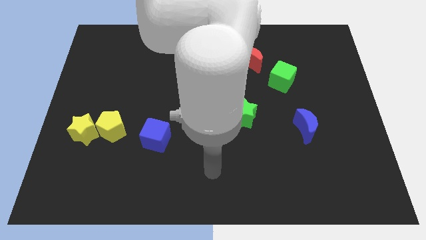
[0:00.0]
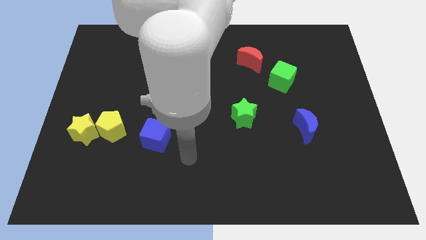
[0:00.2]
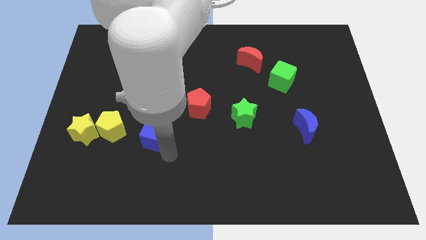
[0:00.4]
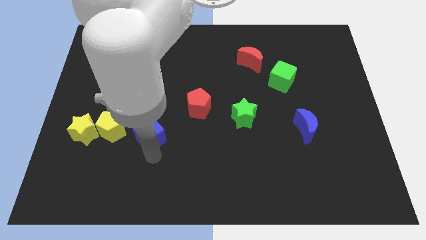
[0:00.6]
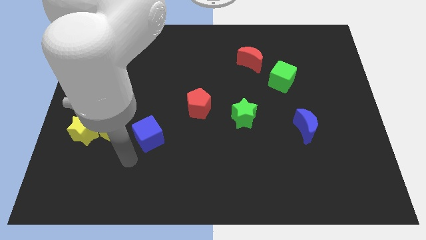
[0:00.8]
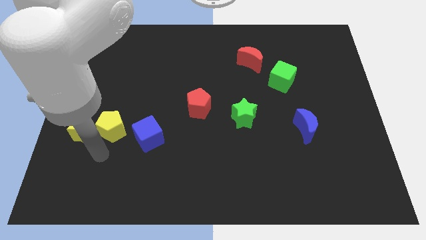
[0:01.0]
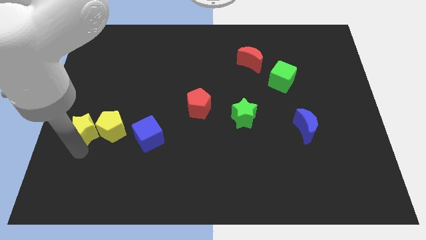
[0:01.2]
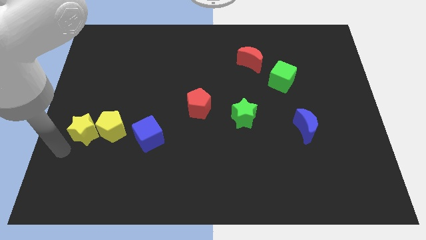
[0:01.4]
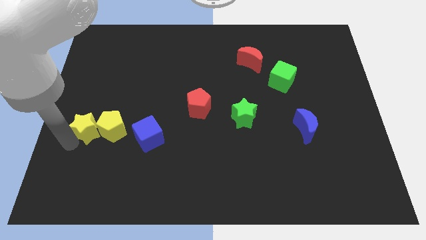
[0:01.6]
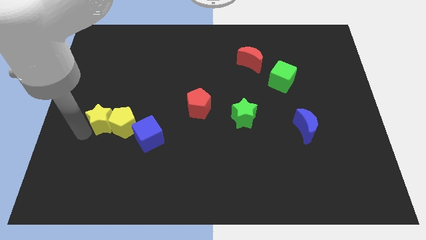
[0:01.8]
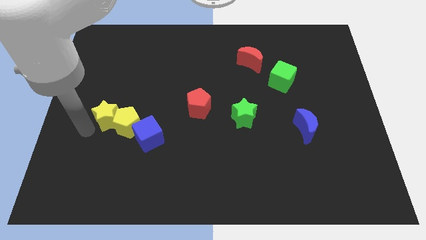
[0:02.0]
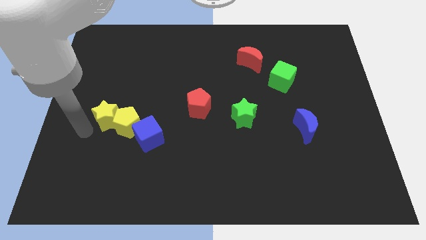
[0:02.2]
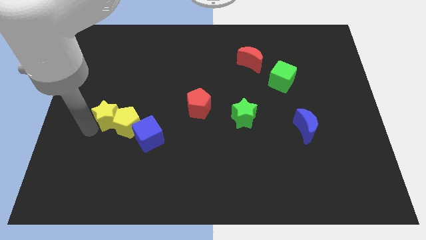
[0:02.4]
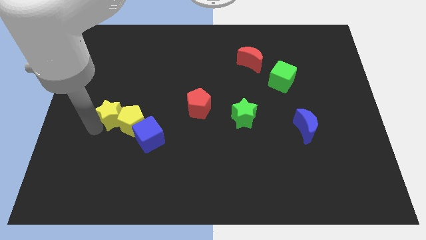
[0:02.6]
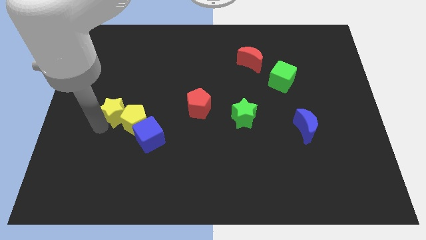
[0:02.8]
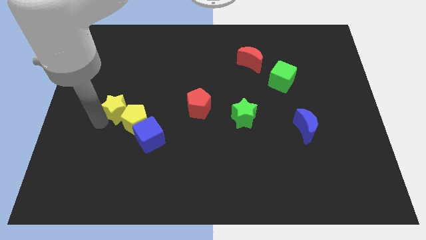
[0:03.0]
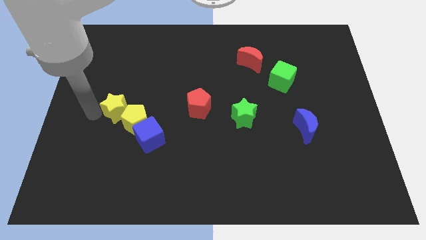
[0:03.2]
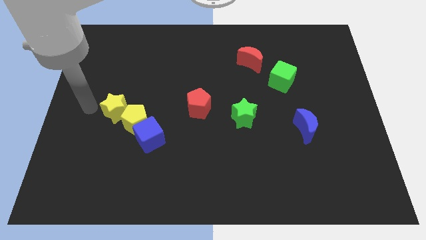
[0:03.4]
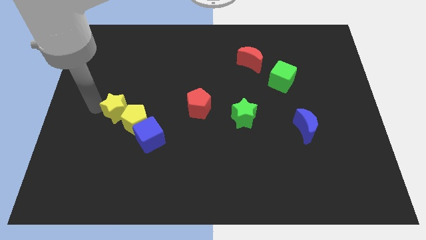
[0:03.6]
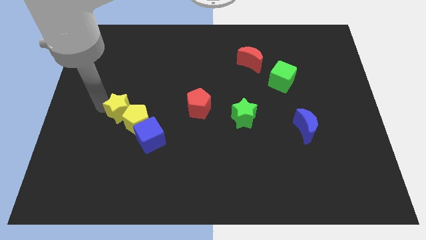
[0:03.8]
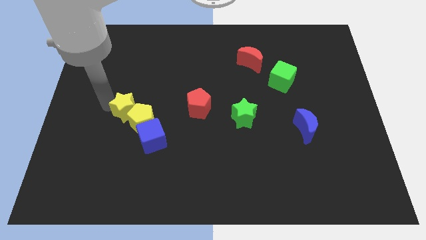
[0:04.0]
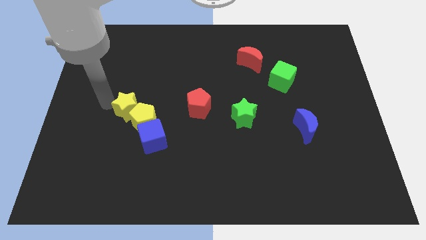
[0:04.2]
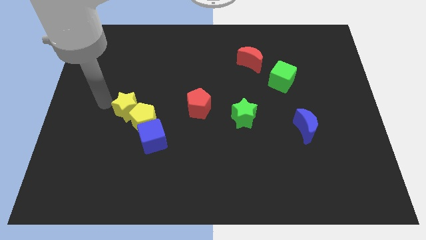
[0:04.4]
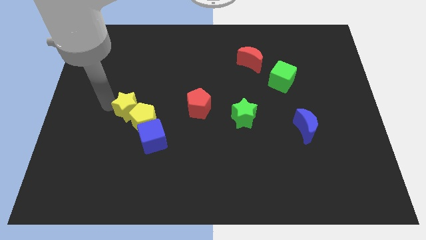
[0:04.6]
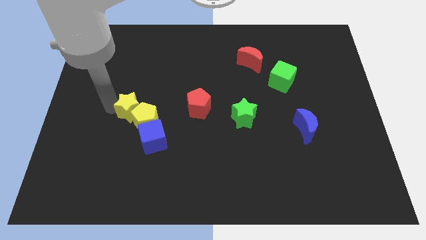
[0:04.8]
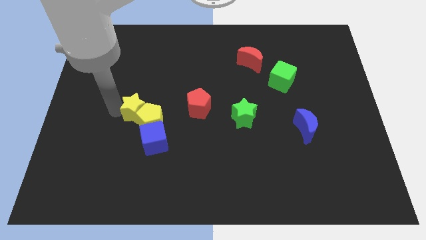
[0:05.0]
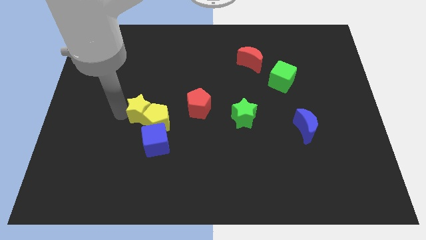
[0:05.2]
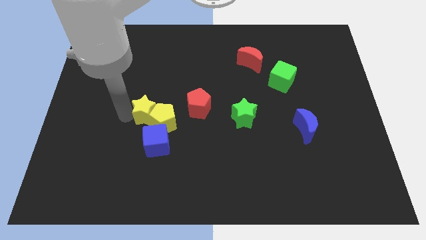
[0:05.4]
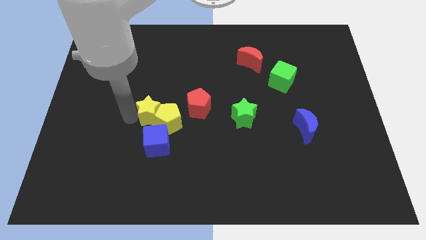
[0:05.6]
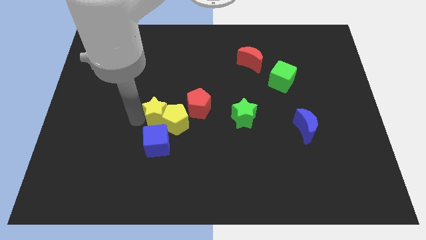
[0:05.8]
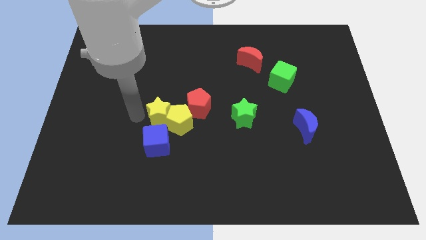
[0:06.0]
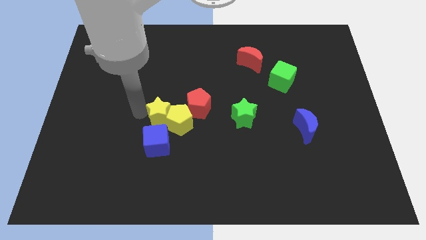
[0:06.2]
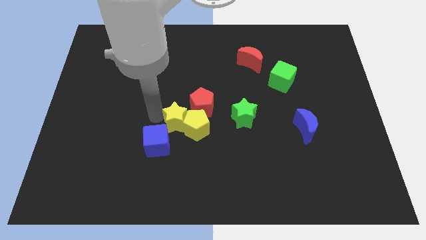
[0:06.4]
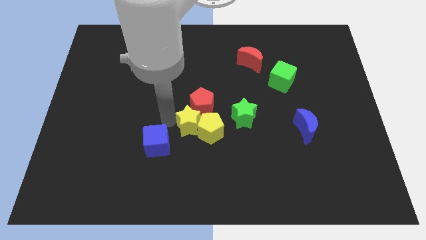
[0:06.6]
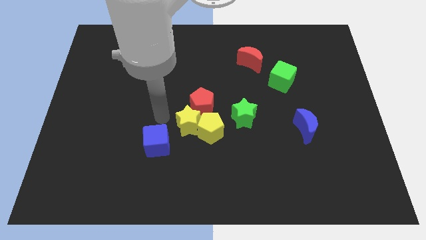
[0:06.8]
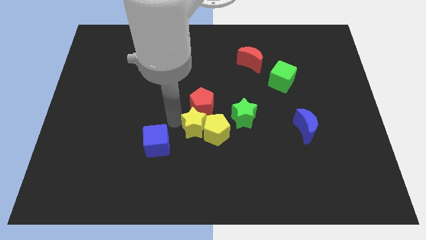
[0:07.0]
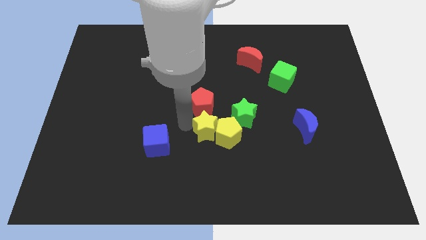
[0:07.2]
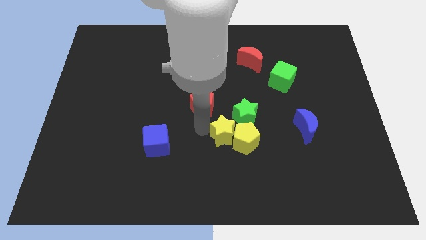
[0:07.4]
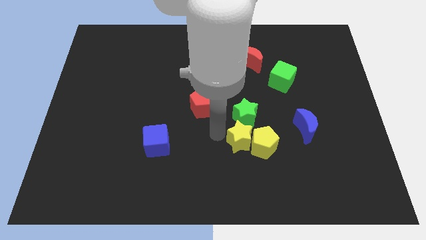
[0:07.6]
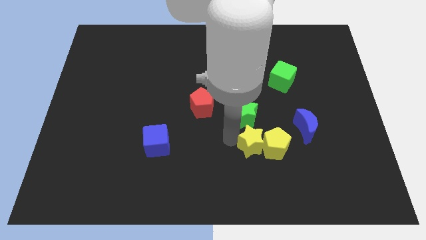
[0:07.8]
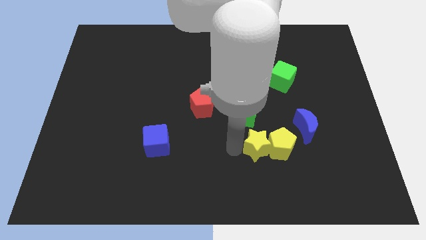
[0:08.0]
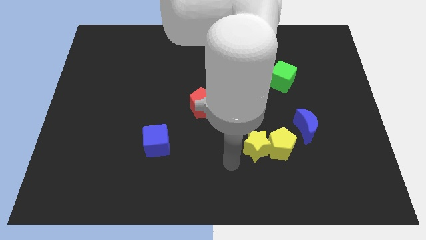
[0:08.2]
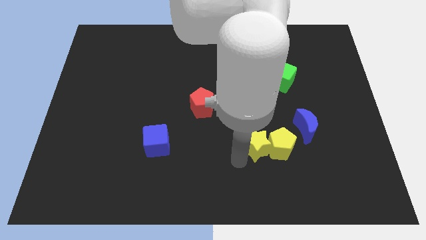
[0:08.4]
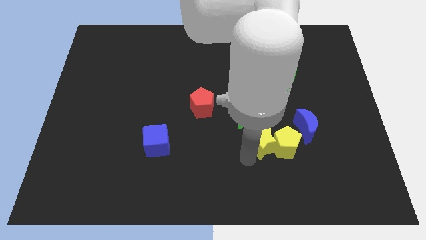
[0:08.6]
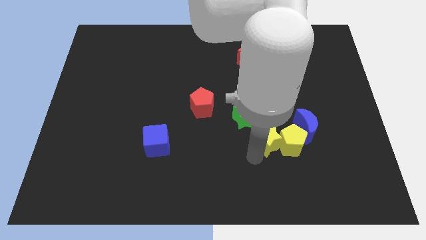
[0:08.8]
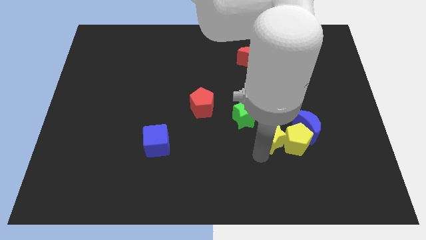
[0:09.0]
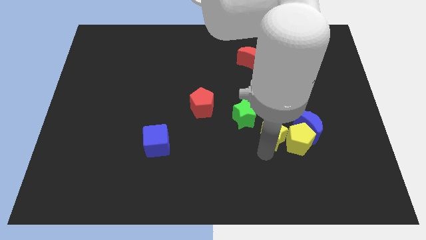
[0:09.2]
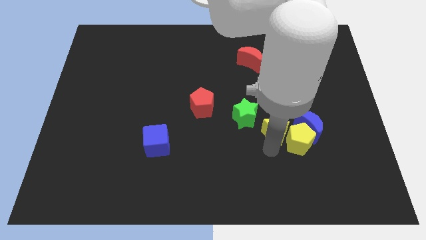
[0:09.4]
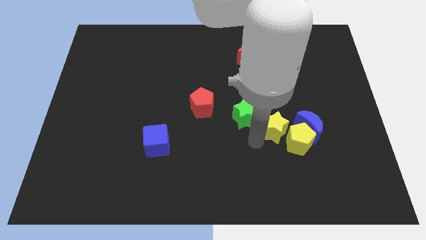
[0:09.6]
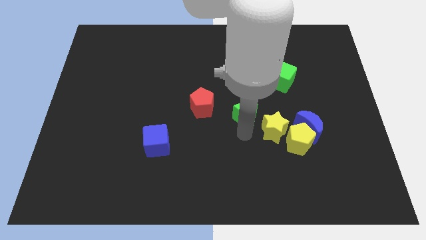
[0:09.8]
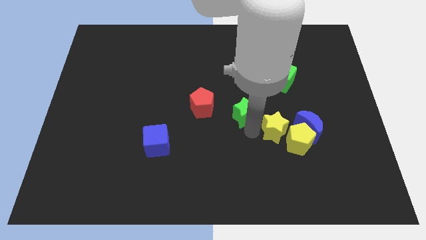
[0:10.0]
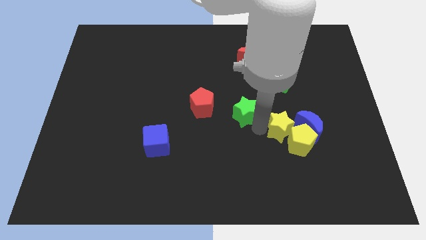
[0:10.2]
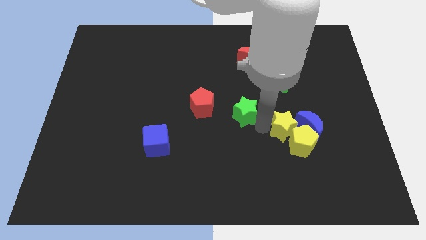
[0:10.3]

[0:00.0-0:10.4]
slide the yellow star close to the blue moon

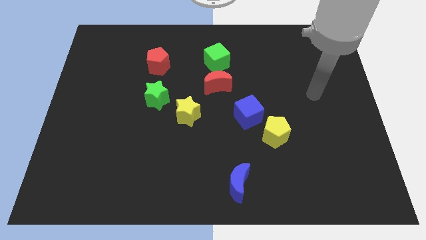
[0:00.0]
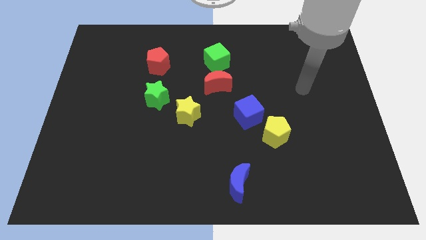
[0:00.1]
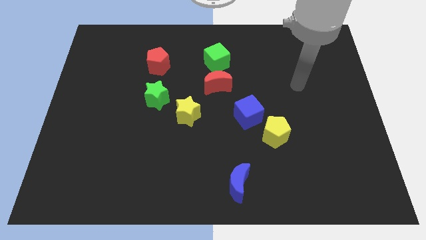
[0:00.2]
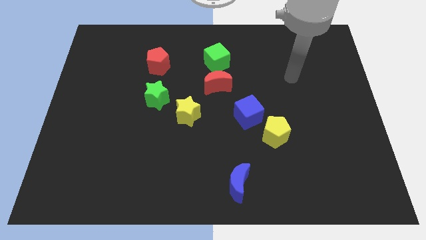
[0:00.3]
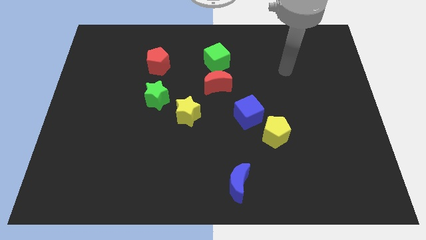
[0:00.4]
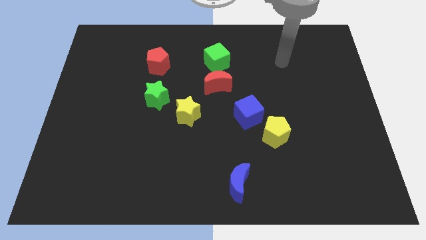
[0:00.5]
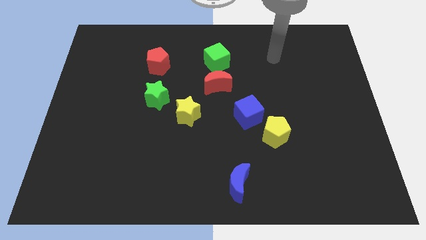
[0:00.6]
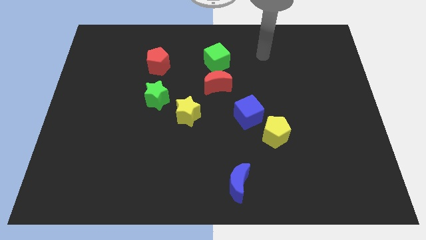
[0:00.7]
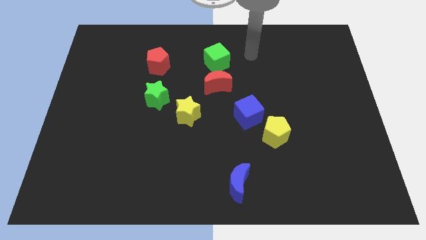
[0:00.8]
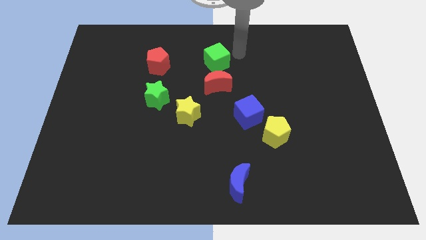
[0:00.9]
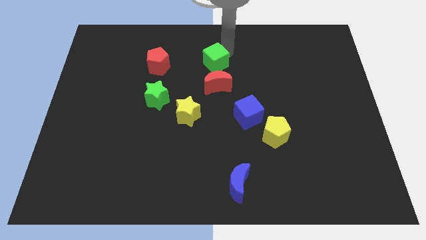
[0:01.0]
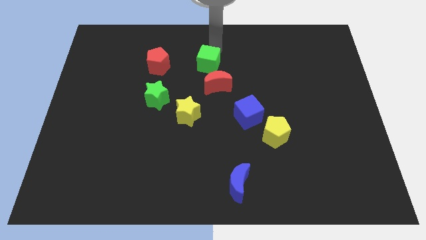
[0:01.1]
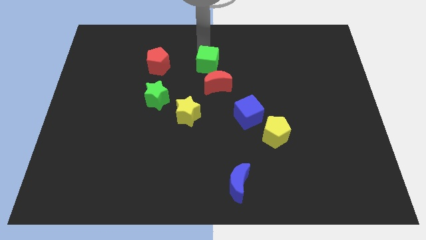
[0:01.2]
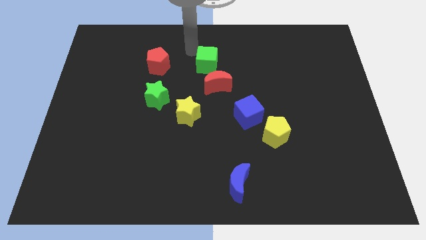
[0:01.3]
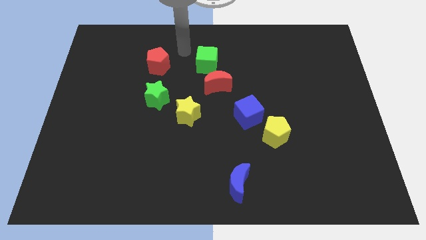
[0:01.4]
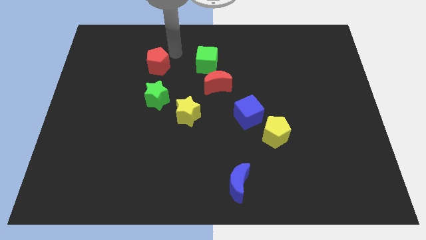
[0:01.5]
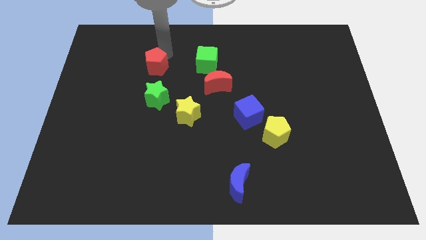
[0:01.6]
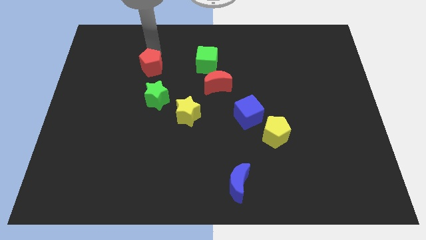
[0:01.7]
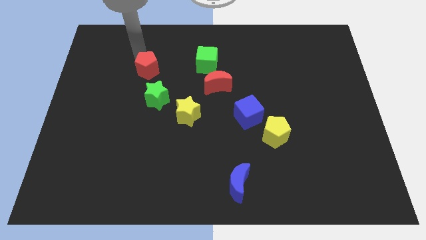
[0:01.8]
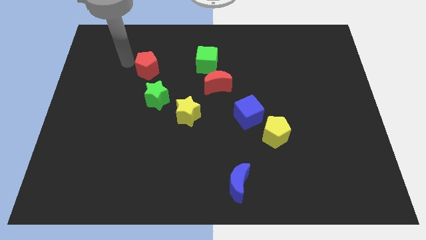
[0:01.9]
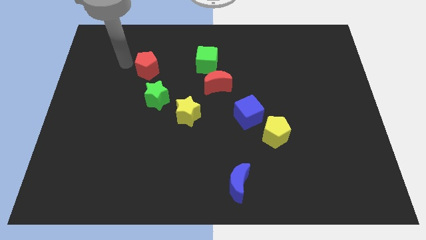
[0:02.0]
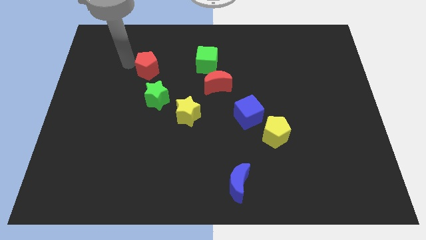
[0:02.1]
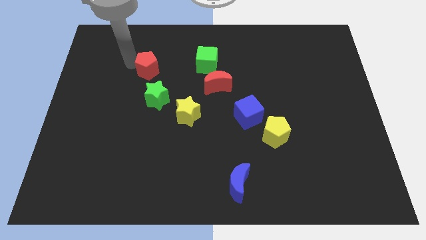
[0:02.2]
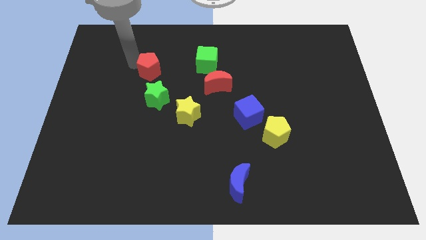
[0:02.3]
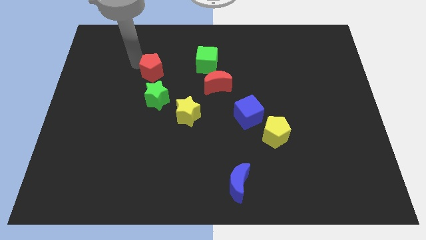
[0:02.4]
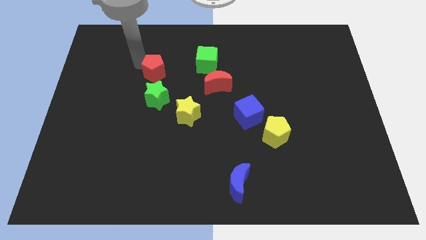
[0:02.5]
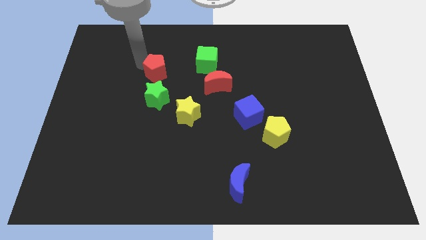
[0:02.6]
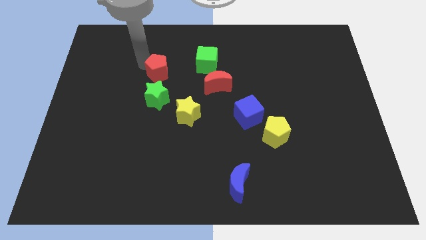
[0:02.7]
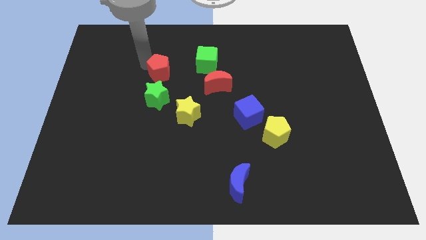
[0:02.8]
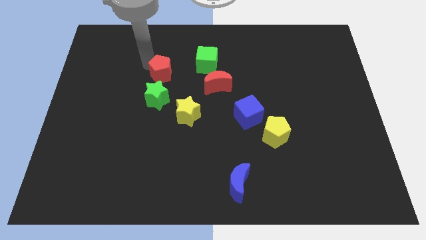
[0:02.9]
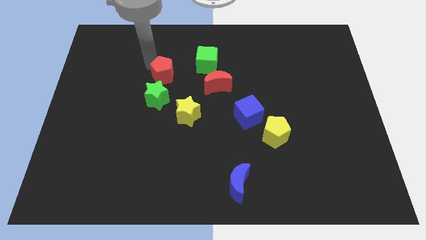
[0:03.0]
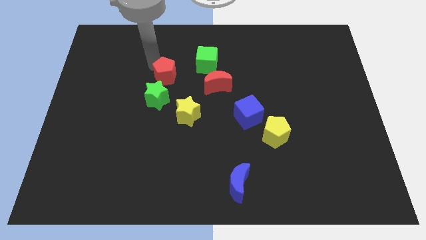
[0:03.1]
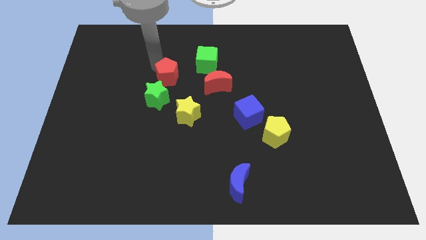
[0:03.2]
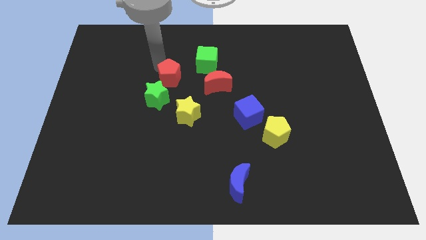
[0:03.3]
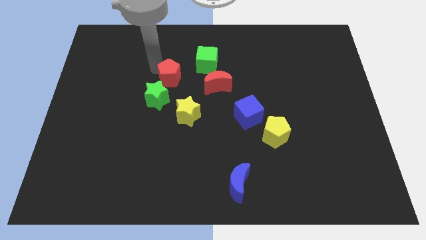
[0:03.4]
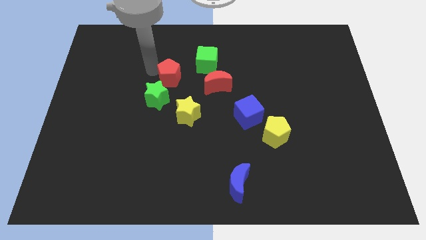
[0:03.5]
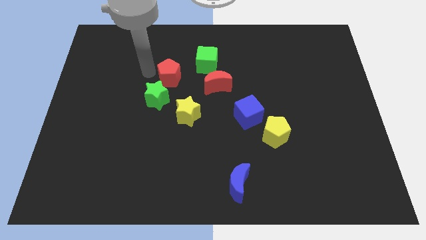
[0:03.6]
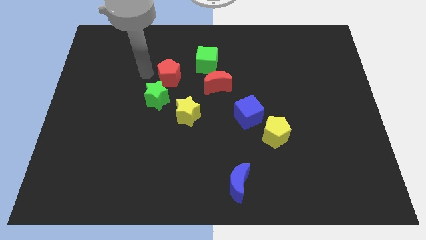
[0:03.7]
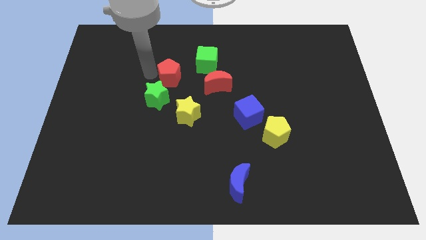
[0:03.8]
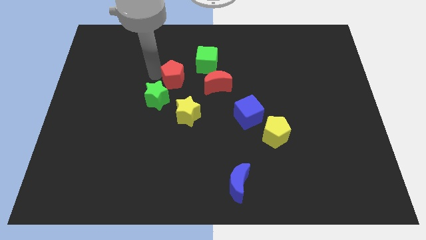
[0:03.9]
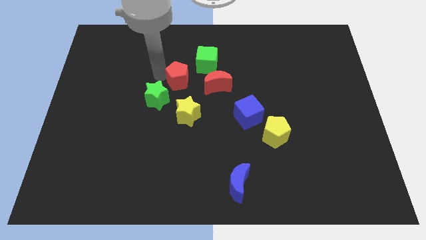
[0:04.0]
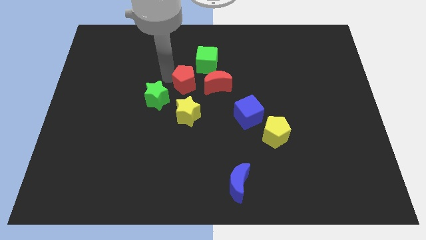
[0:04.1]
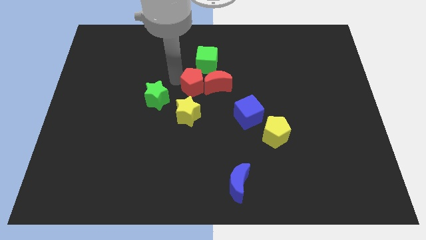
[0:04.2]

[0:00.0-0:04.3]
move the red pentagon next to the red moon
